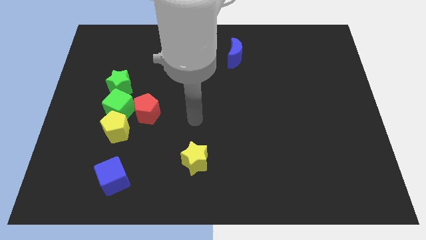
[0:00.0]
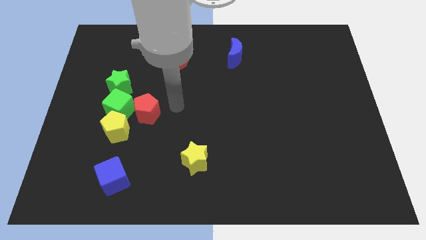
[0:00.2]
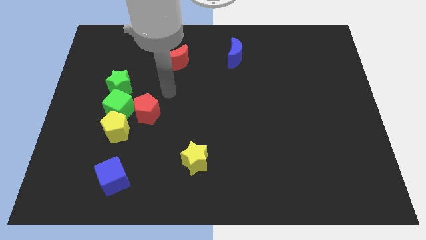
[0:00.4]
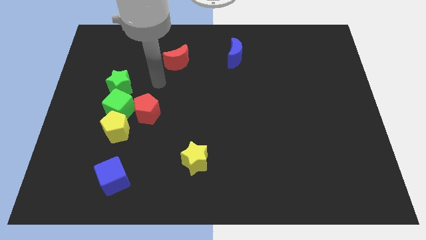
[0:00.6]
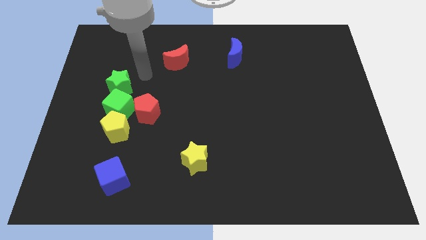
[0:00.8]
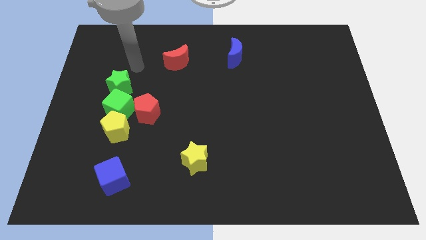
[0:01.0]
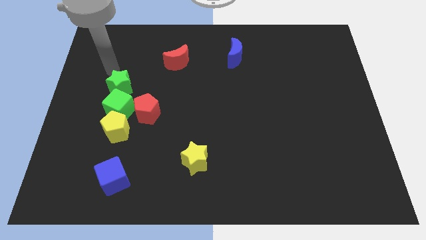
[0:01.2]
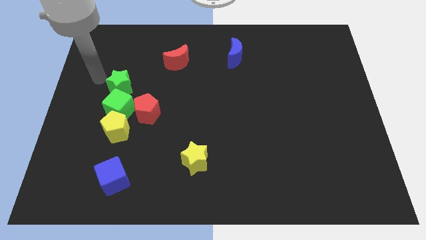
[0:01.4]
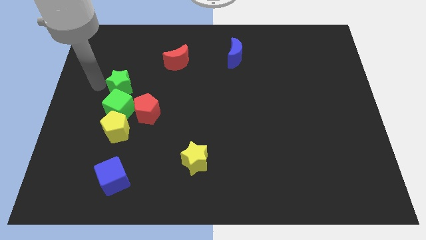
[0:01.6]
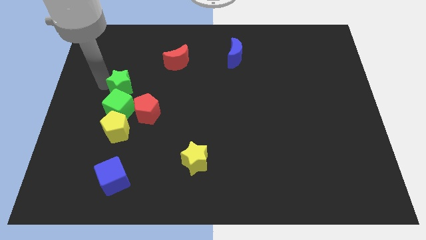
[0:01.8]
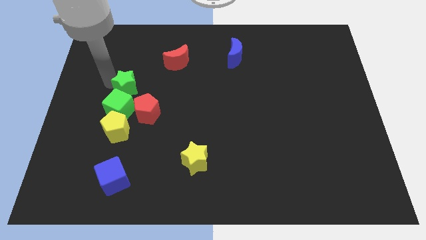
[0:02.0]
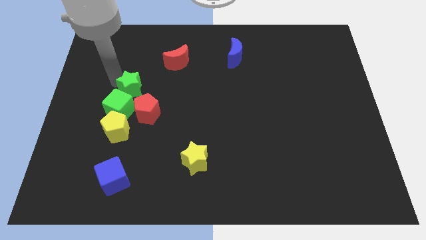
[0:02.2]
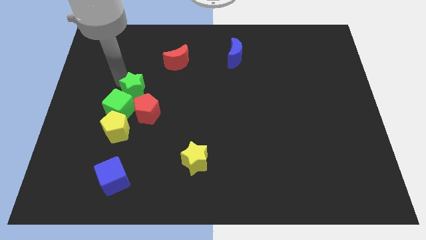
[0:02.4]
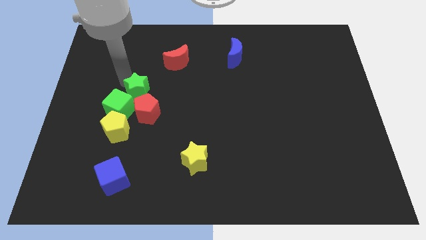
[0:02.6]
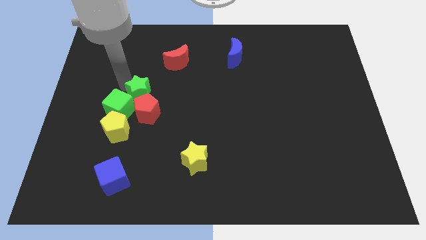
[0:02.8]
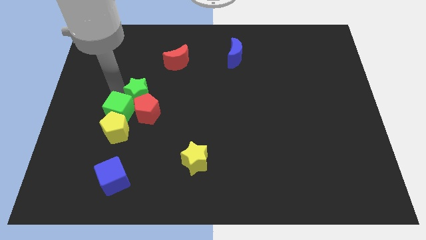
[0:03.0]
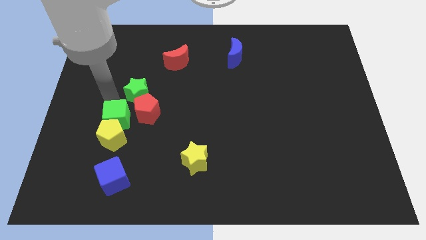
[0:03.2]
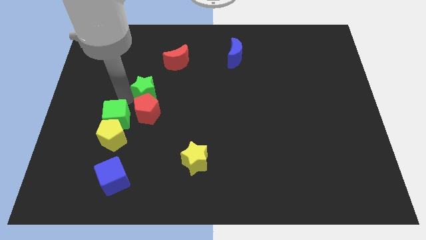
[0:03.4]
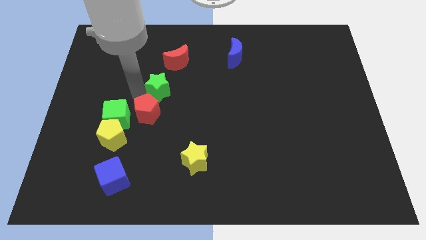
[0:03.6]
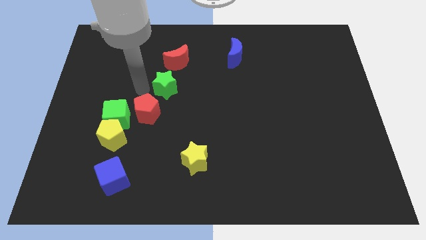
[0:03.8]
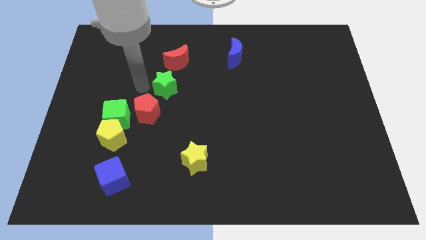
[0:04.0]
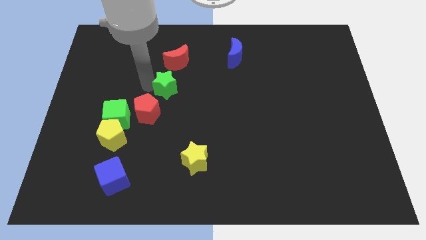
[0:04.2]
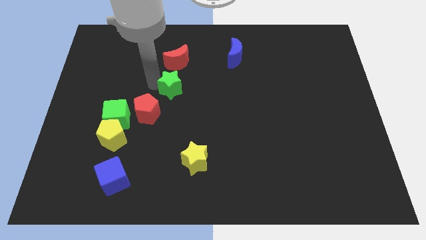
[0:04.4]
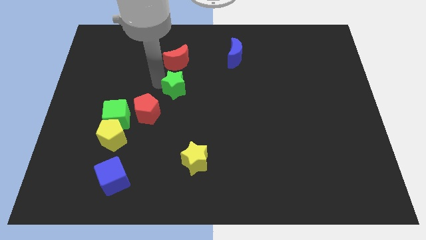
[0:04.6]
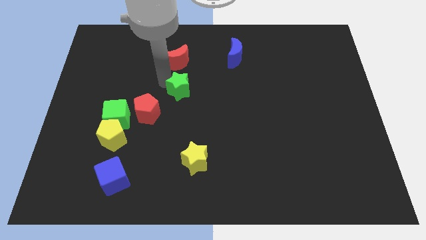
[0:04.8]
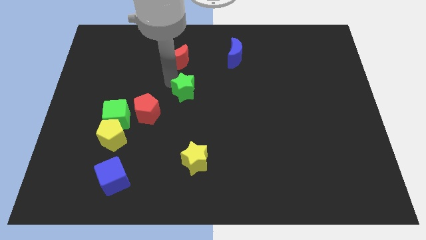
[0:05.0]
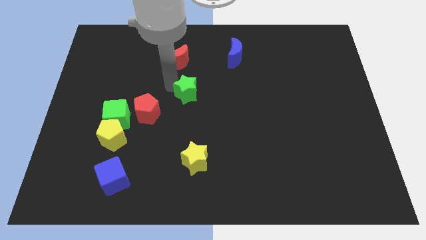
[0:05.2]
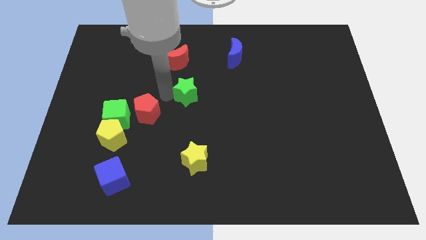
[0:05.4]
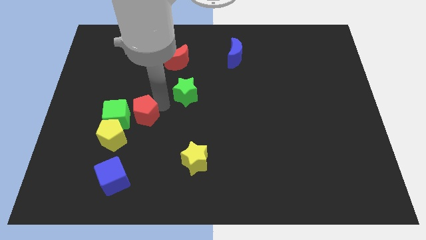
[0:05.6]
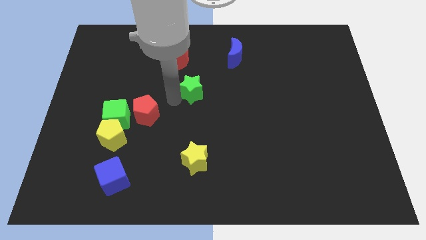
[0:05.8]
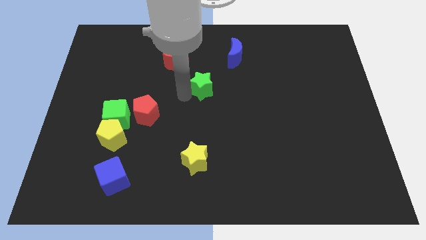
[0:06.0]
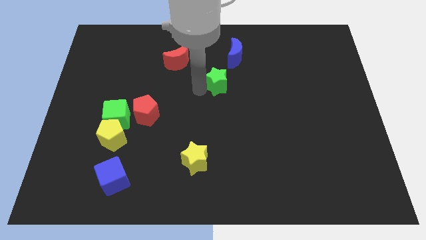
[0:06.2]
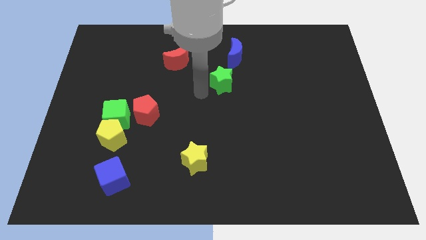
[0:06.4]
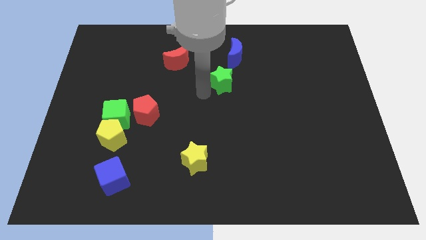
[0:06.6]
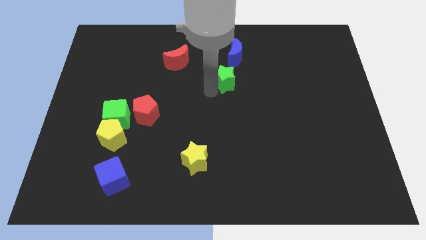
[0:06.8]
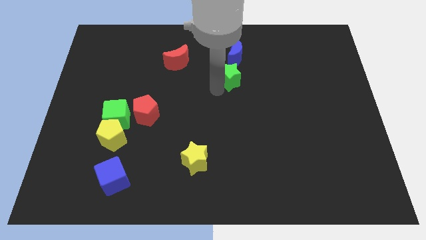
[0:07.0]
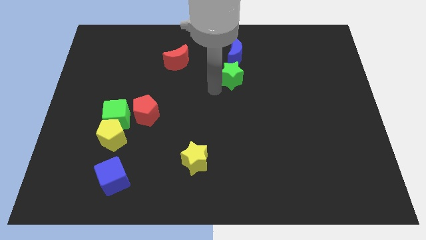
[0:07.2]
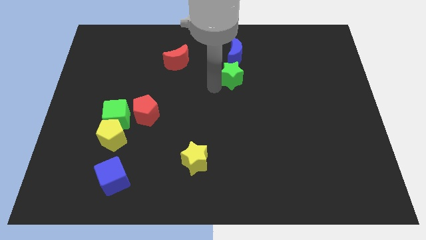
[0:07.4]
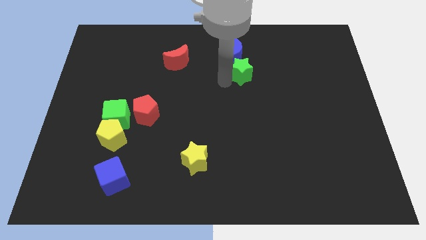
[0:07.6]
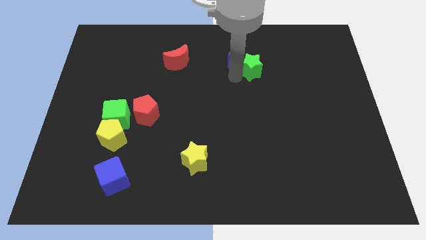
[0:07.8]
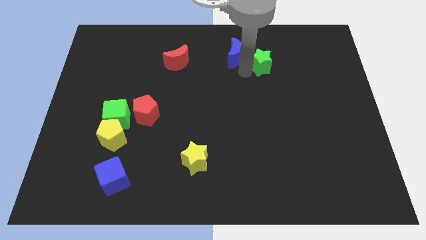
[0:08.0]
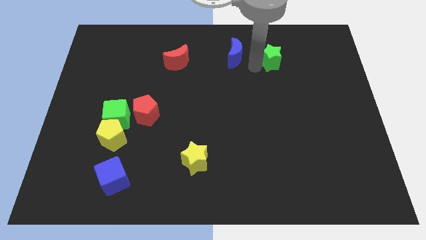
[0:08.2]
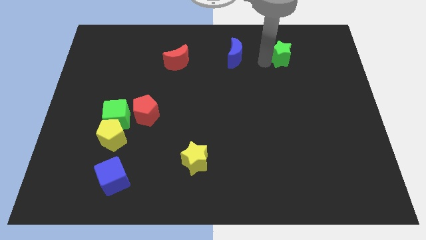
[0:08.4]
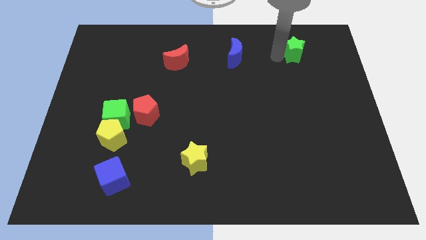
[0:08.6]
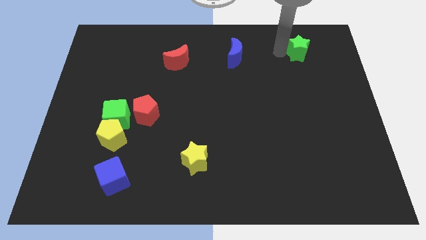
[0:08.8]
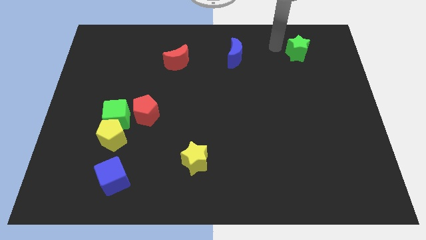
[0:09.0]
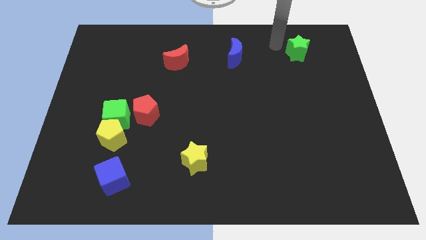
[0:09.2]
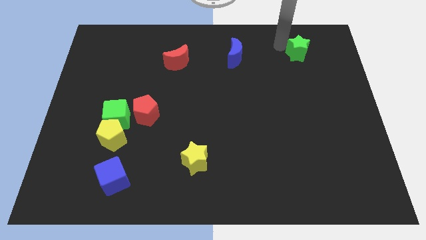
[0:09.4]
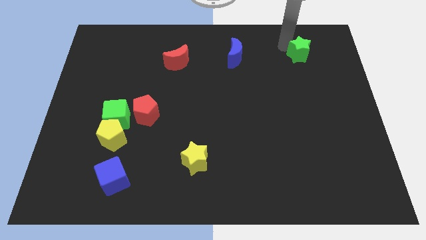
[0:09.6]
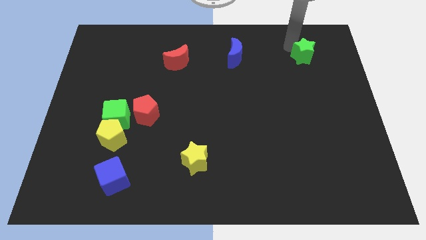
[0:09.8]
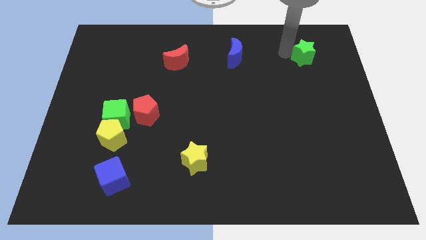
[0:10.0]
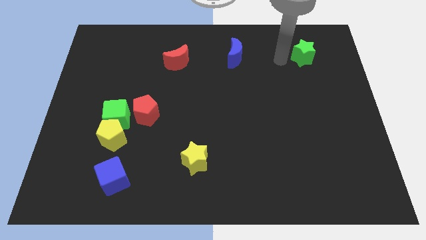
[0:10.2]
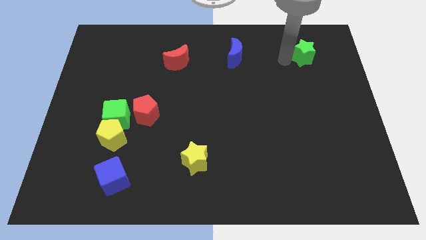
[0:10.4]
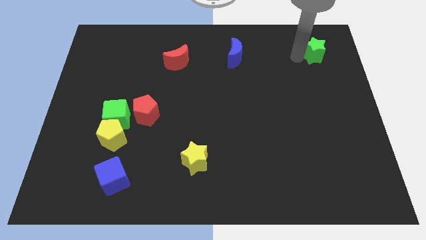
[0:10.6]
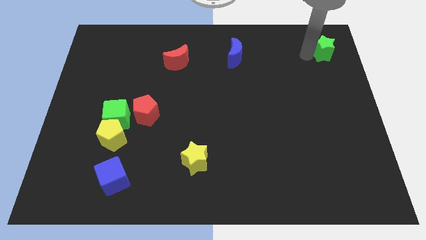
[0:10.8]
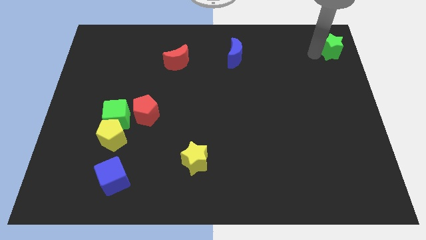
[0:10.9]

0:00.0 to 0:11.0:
put the green star to the top right

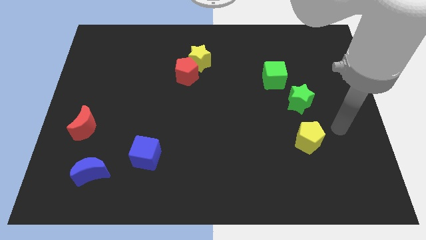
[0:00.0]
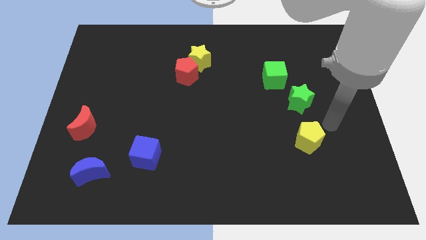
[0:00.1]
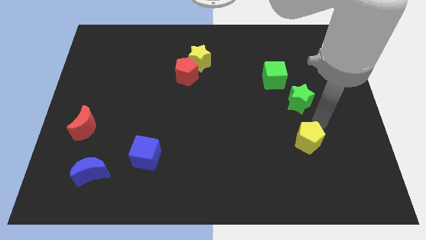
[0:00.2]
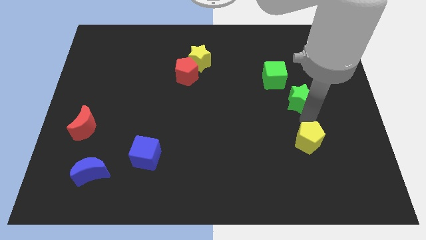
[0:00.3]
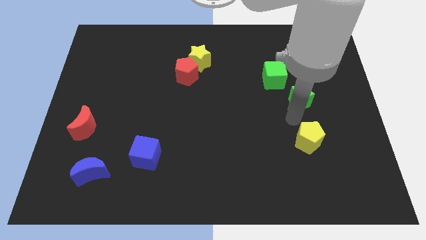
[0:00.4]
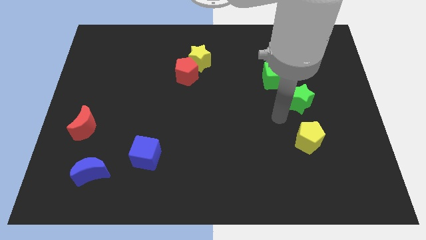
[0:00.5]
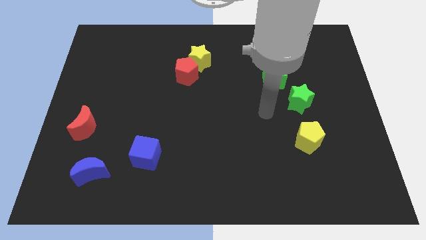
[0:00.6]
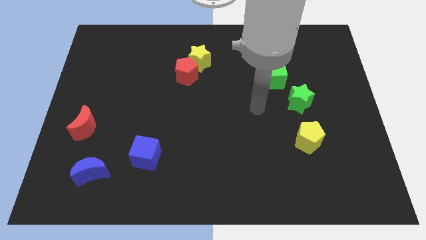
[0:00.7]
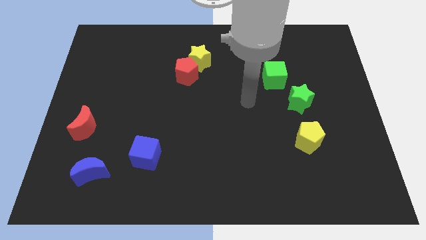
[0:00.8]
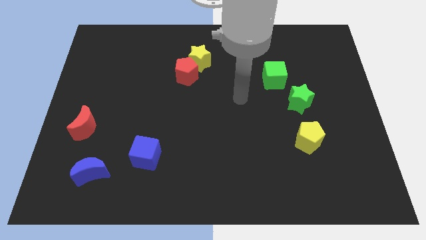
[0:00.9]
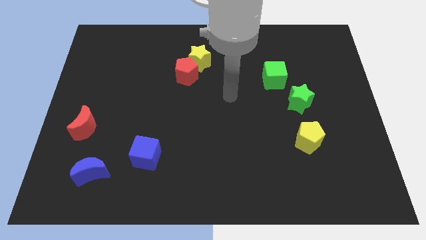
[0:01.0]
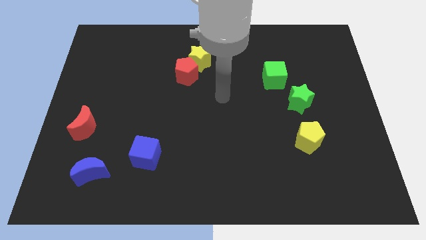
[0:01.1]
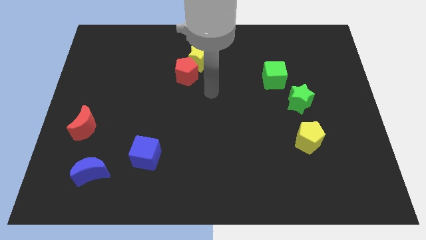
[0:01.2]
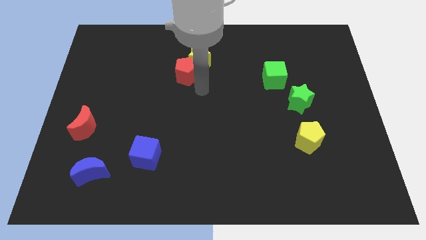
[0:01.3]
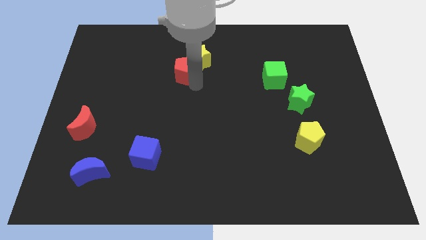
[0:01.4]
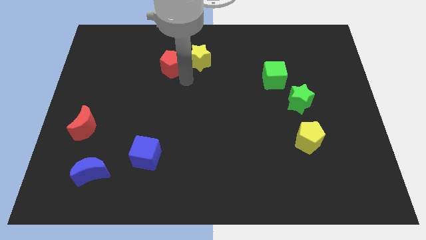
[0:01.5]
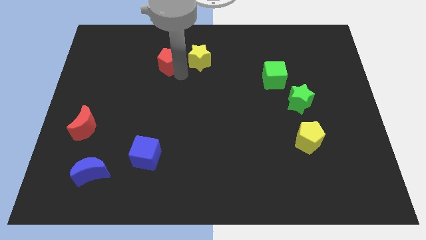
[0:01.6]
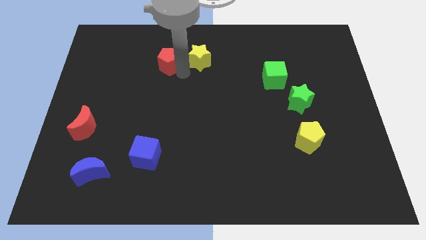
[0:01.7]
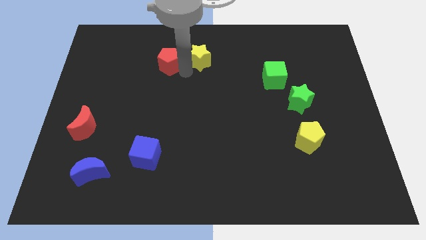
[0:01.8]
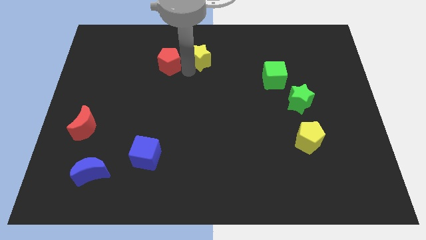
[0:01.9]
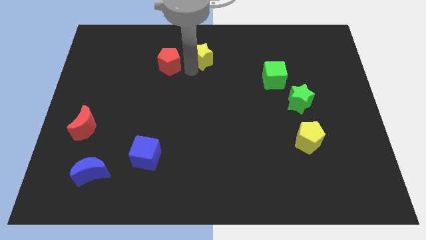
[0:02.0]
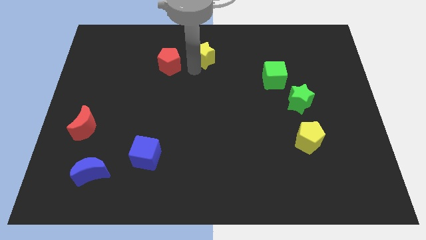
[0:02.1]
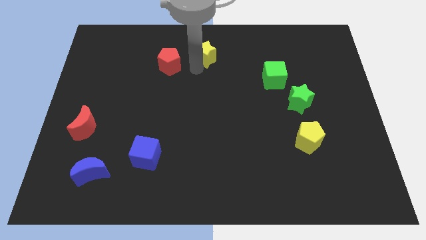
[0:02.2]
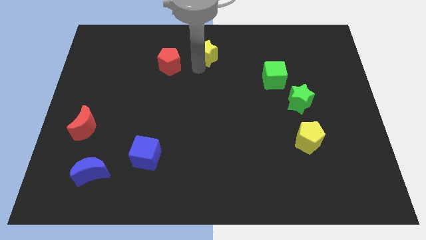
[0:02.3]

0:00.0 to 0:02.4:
slide the yellow star to the towards your base
